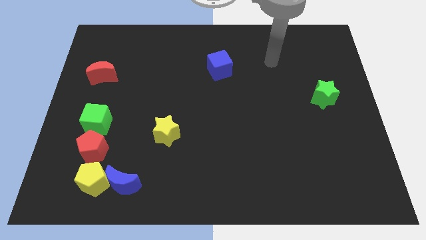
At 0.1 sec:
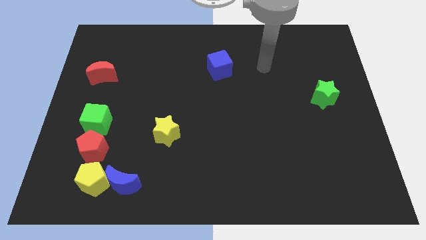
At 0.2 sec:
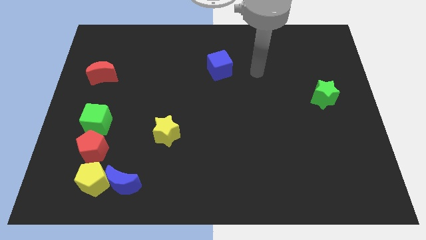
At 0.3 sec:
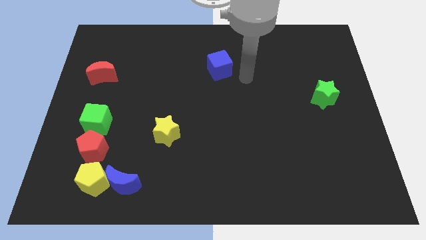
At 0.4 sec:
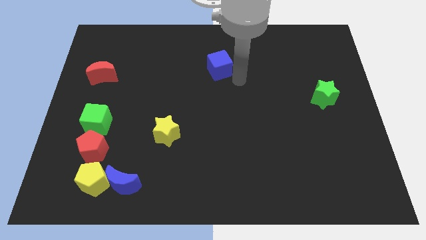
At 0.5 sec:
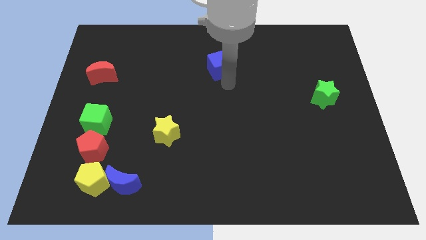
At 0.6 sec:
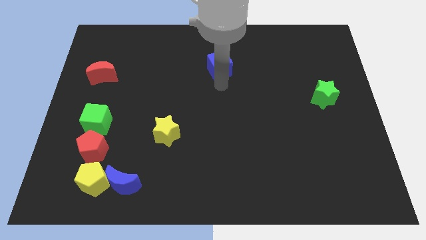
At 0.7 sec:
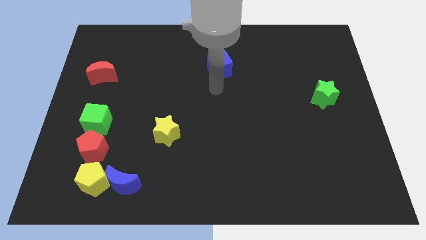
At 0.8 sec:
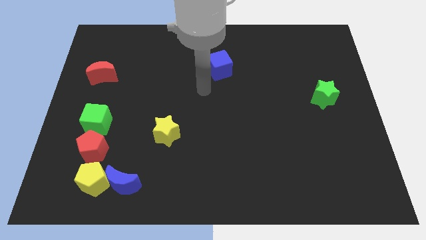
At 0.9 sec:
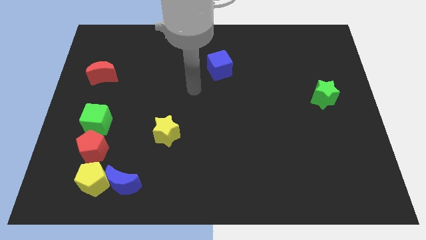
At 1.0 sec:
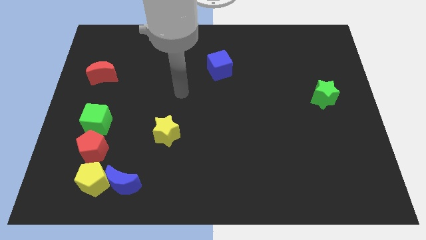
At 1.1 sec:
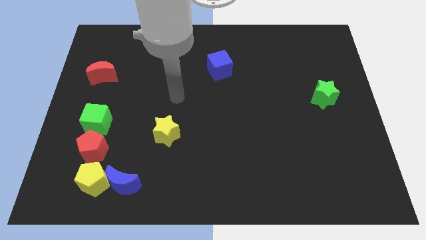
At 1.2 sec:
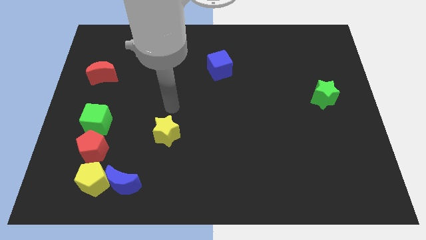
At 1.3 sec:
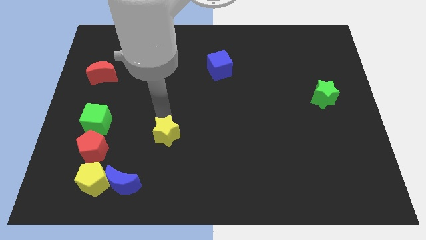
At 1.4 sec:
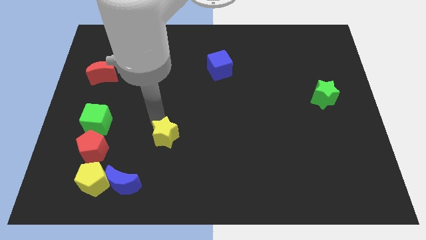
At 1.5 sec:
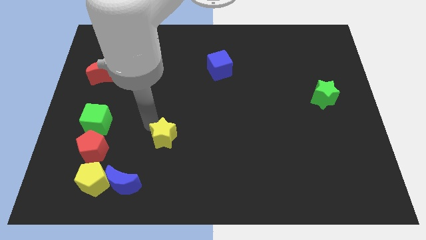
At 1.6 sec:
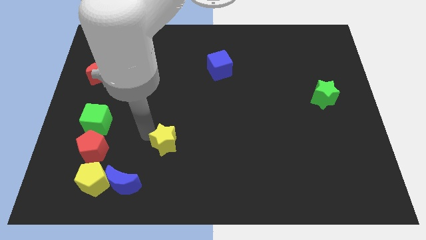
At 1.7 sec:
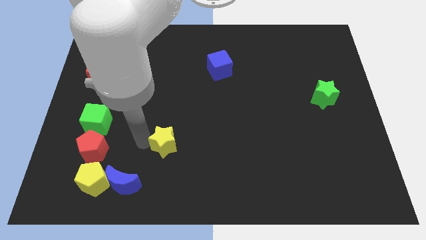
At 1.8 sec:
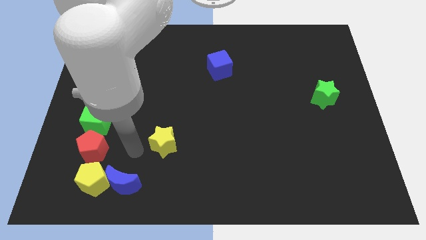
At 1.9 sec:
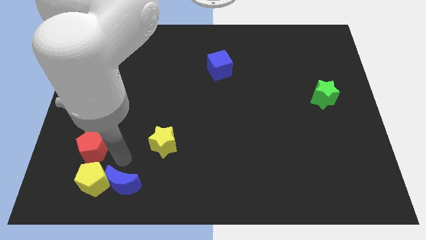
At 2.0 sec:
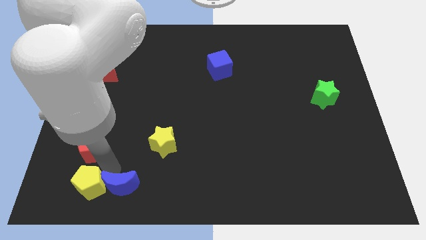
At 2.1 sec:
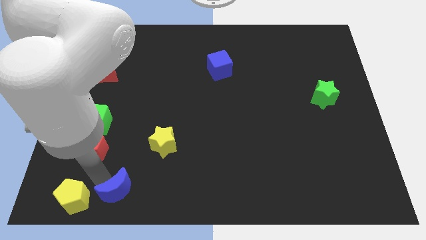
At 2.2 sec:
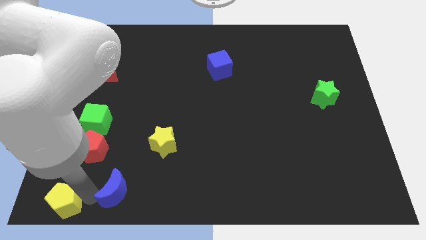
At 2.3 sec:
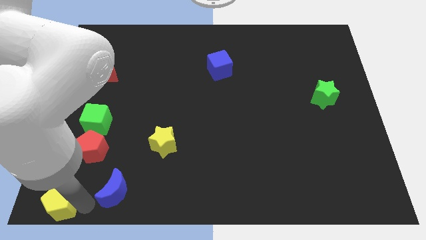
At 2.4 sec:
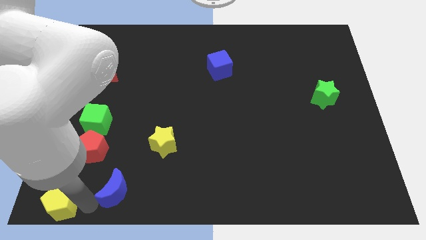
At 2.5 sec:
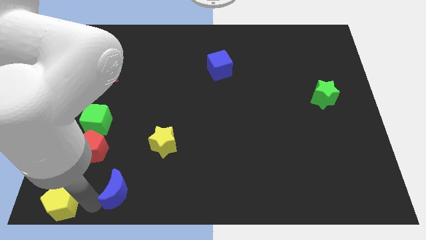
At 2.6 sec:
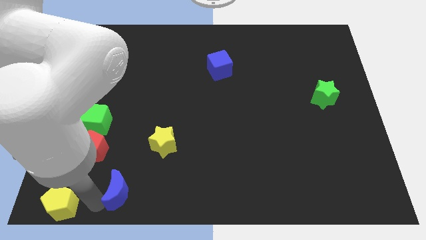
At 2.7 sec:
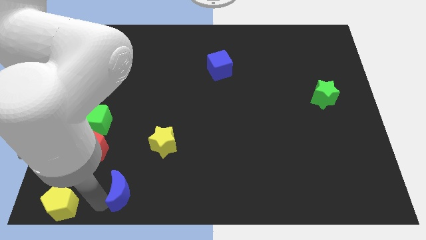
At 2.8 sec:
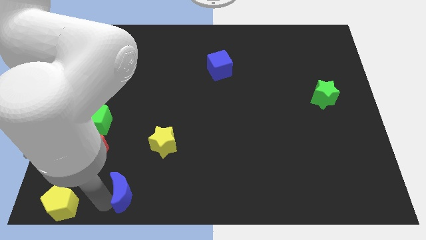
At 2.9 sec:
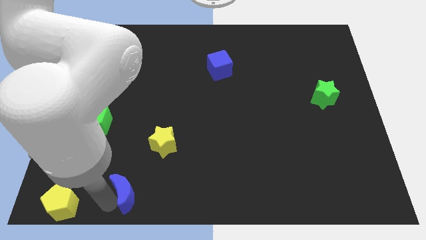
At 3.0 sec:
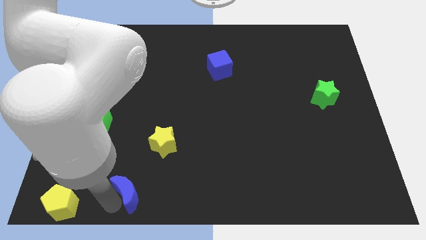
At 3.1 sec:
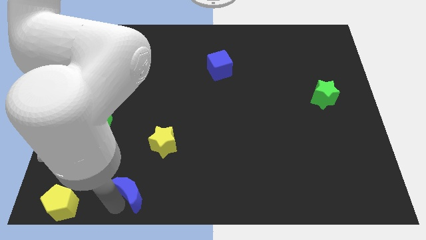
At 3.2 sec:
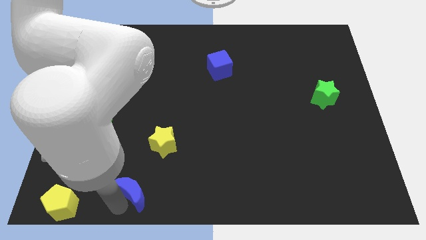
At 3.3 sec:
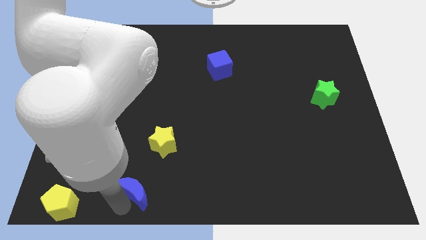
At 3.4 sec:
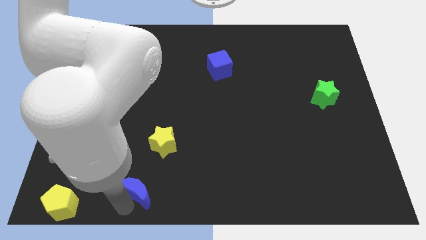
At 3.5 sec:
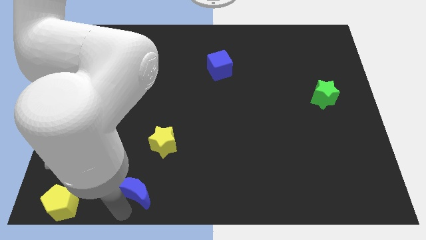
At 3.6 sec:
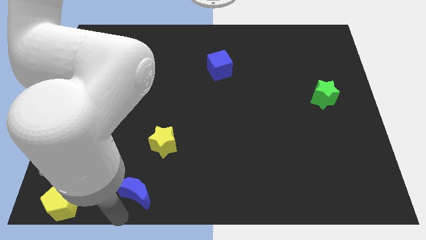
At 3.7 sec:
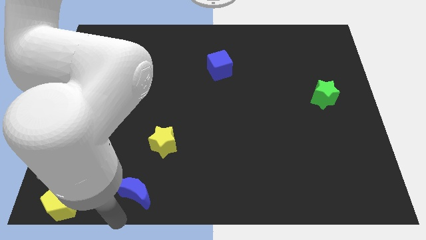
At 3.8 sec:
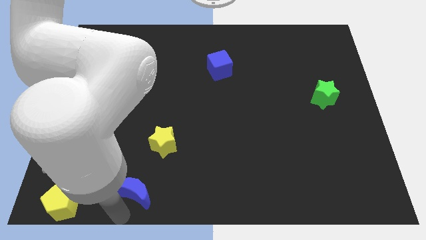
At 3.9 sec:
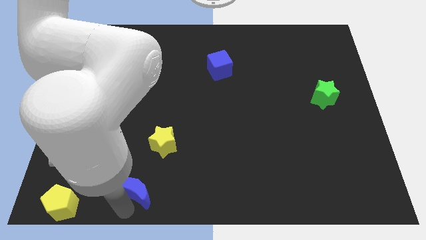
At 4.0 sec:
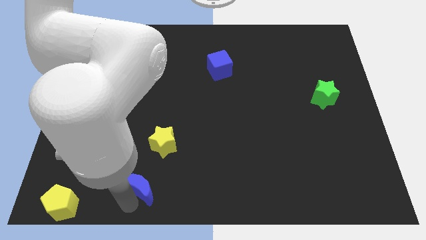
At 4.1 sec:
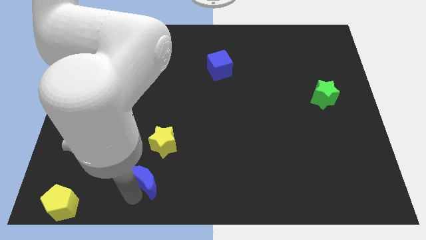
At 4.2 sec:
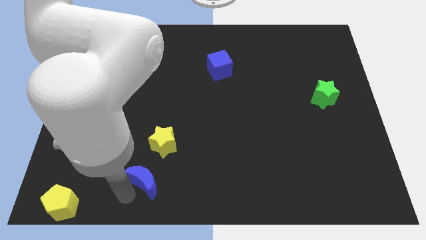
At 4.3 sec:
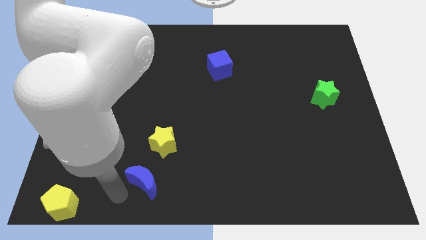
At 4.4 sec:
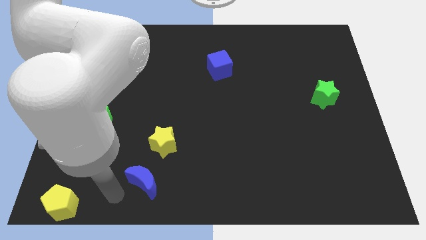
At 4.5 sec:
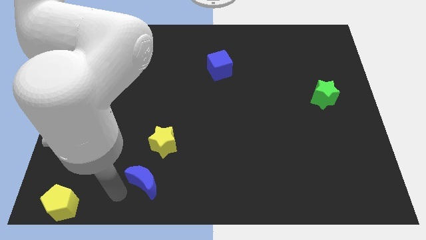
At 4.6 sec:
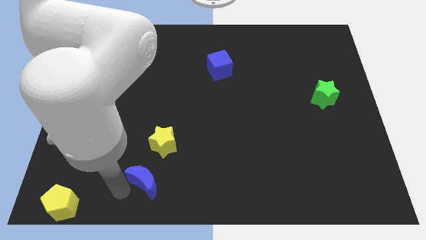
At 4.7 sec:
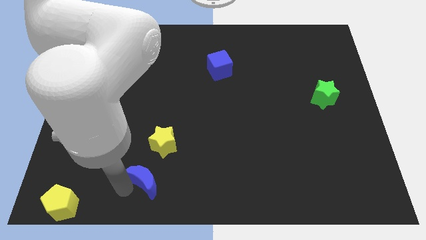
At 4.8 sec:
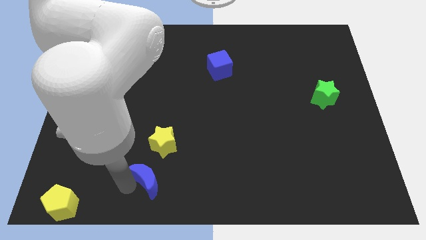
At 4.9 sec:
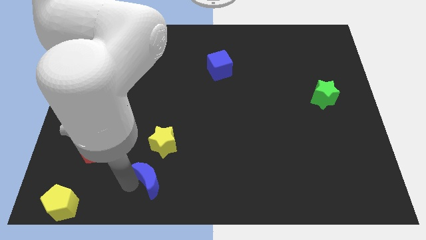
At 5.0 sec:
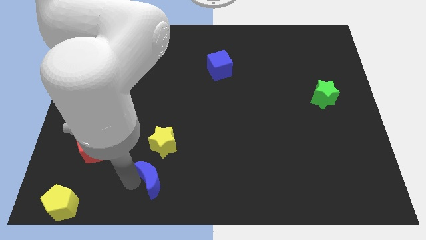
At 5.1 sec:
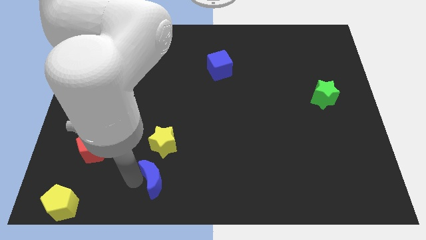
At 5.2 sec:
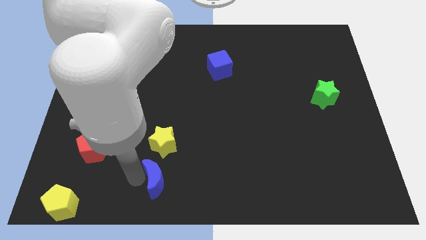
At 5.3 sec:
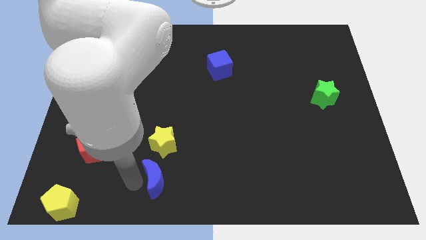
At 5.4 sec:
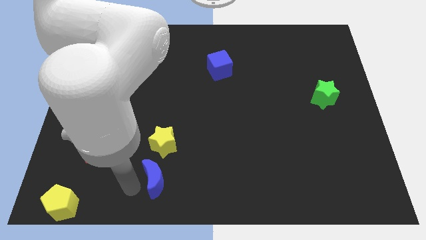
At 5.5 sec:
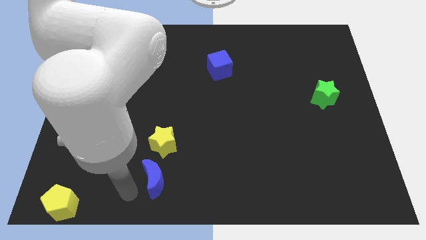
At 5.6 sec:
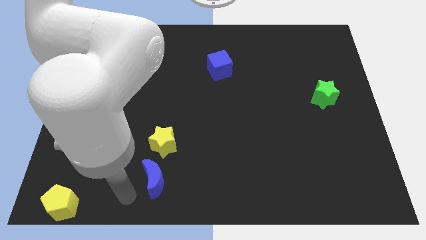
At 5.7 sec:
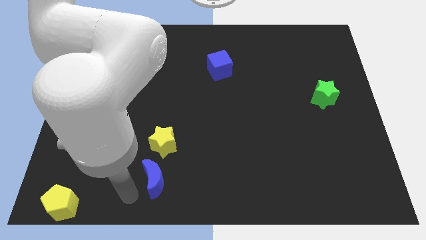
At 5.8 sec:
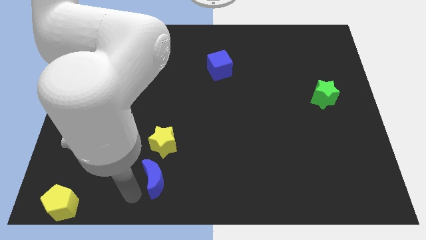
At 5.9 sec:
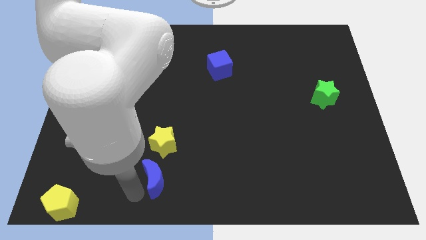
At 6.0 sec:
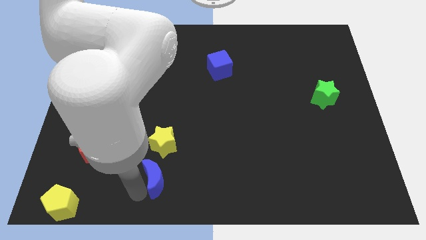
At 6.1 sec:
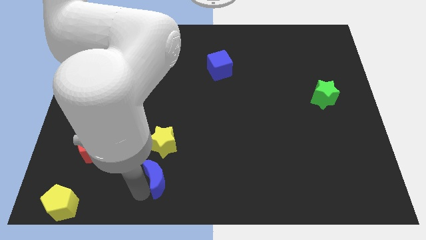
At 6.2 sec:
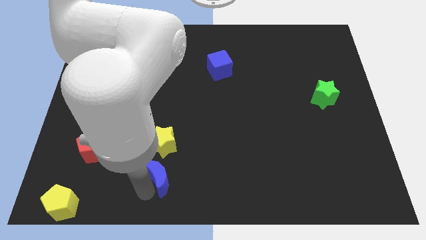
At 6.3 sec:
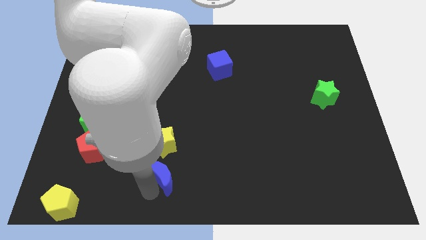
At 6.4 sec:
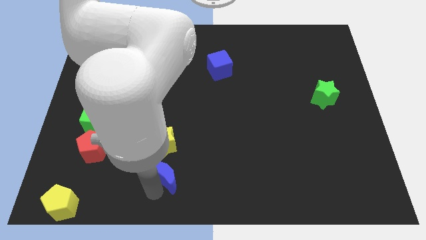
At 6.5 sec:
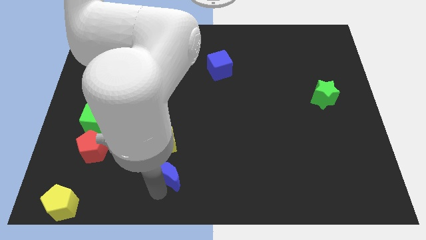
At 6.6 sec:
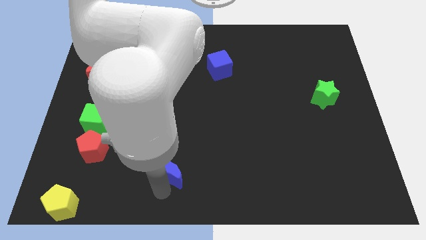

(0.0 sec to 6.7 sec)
slightly push the blue moon upwards and right

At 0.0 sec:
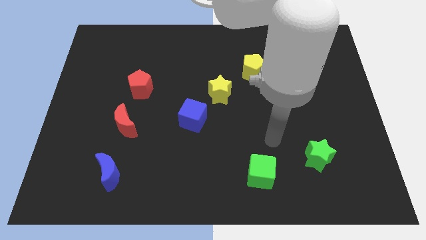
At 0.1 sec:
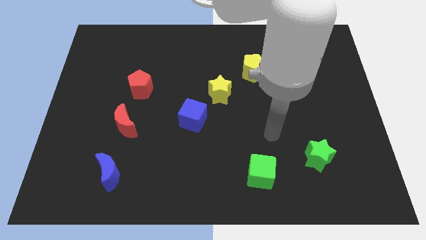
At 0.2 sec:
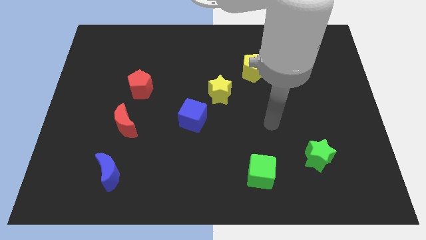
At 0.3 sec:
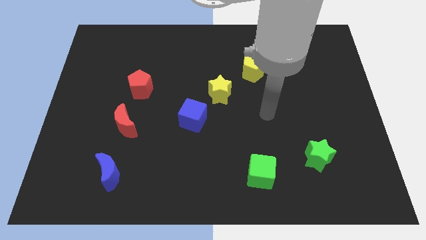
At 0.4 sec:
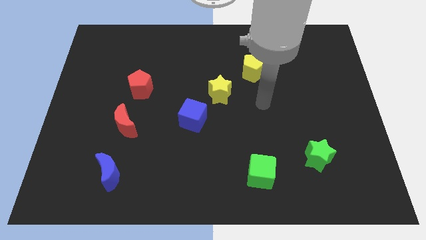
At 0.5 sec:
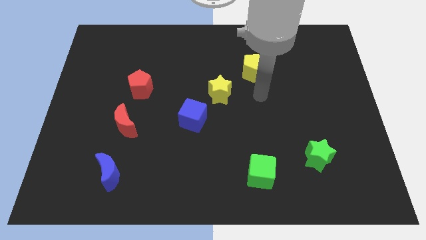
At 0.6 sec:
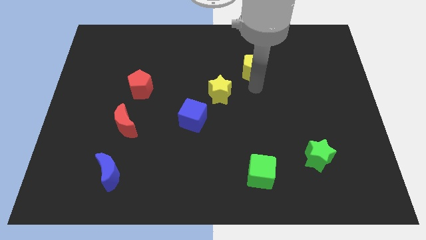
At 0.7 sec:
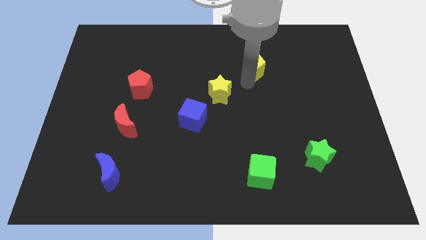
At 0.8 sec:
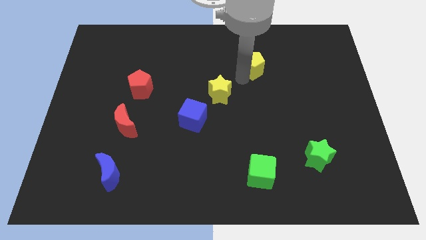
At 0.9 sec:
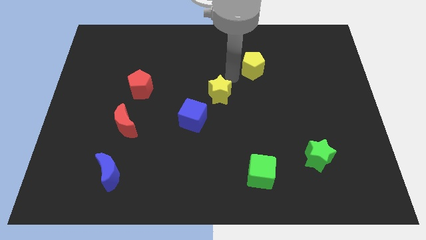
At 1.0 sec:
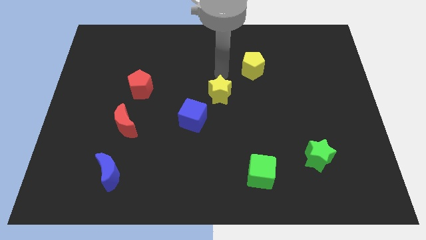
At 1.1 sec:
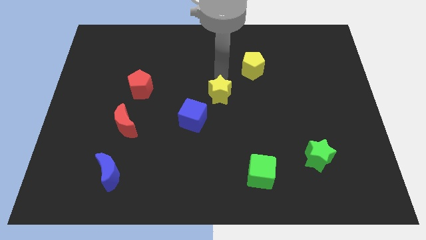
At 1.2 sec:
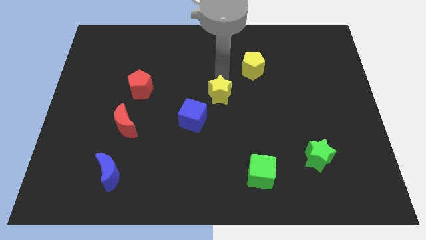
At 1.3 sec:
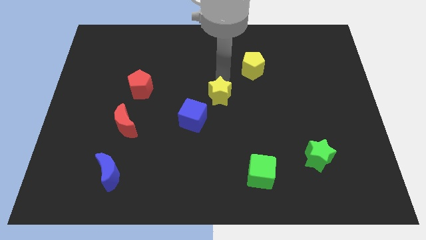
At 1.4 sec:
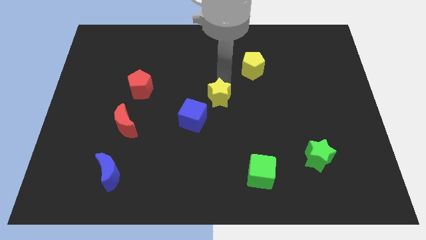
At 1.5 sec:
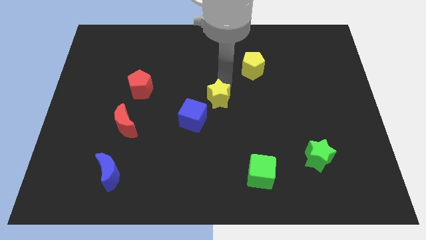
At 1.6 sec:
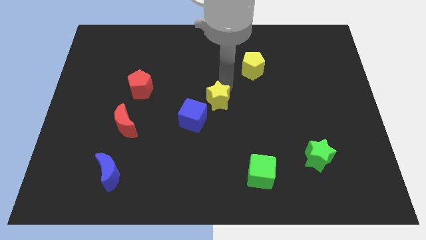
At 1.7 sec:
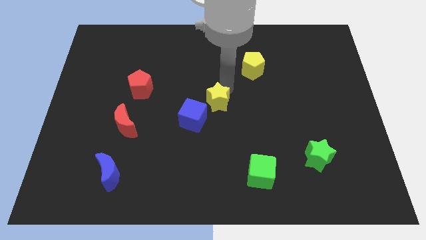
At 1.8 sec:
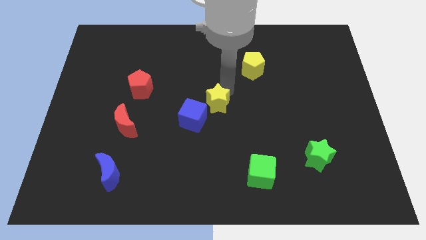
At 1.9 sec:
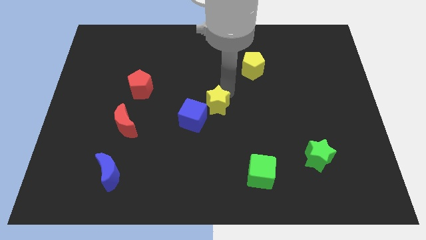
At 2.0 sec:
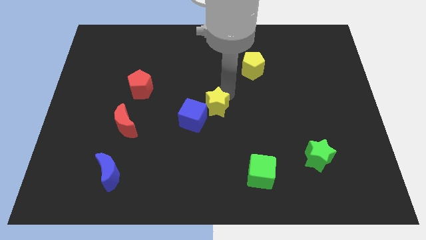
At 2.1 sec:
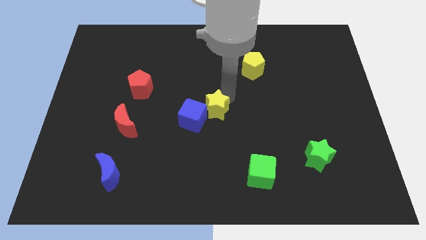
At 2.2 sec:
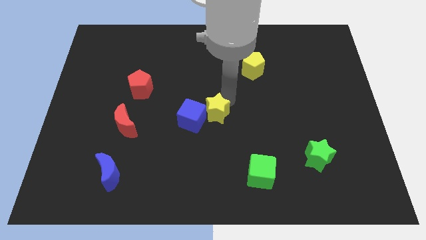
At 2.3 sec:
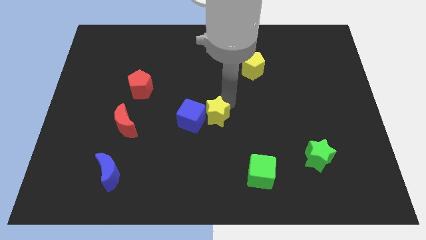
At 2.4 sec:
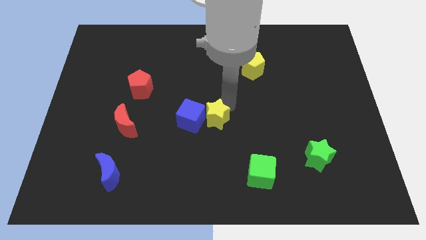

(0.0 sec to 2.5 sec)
slightly move the yellow star down
